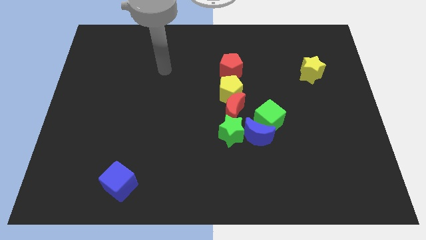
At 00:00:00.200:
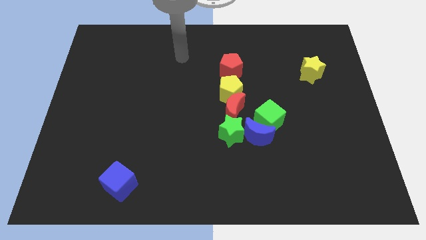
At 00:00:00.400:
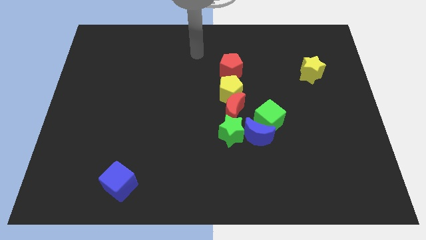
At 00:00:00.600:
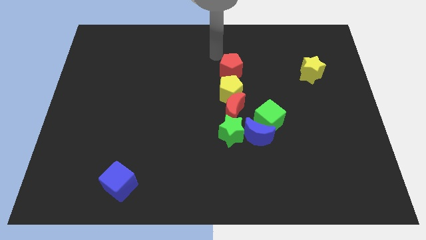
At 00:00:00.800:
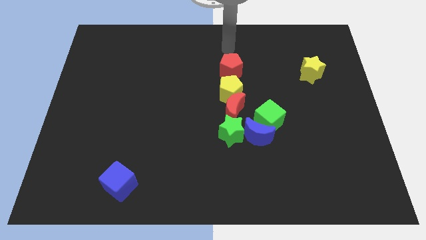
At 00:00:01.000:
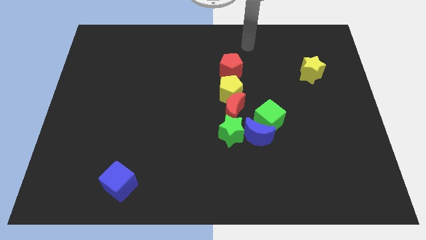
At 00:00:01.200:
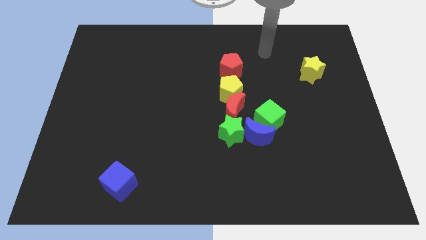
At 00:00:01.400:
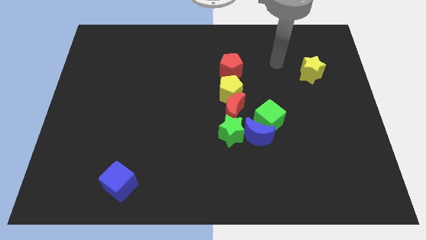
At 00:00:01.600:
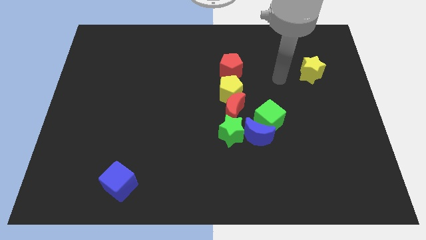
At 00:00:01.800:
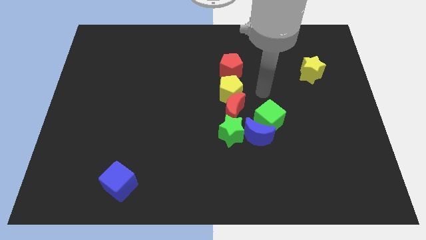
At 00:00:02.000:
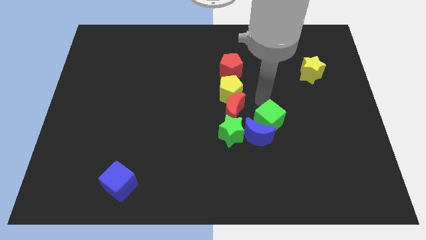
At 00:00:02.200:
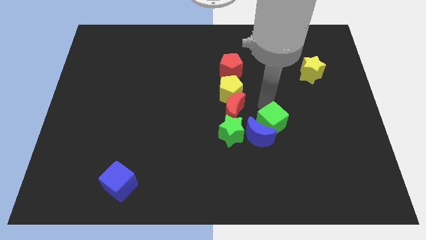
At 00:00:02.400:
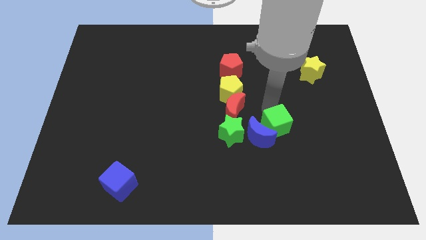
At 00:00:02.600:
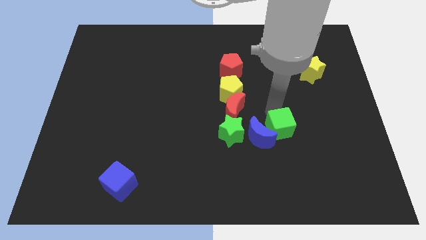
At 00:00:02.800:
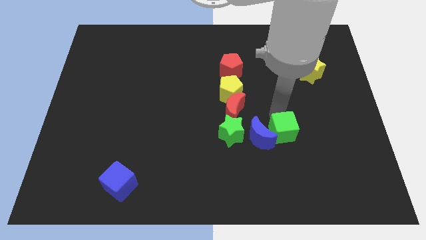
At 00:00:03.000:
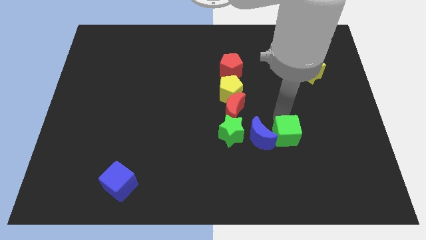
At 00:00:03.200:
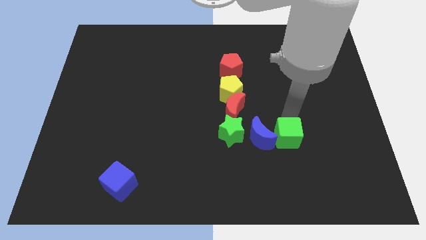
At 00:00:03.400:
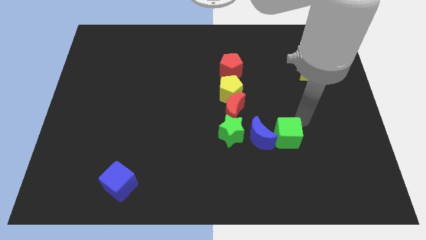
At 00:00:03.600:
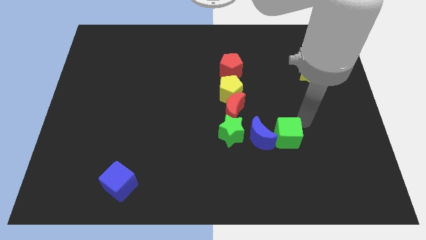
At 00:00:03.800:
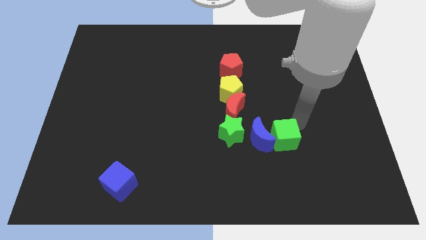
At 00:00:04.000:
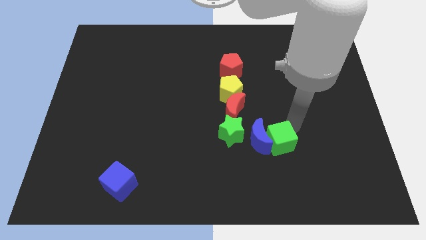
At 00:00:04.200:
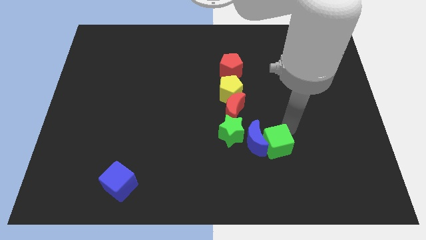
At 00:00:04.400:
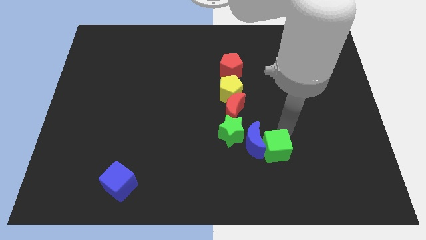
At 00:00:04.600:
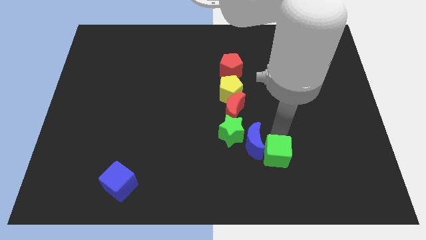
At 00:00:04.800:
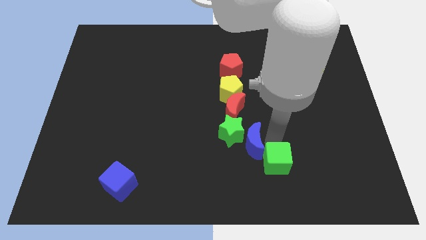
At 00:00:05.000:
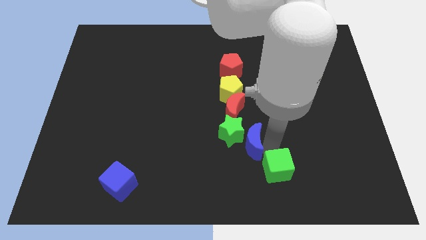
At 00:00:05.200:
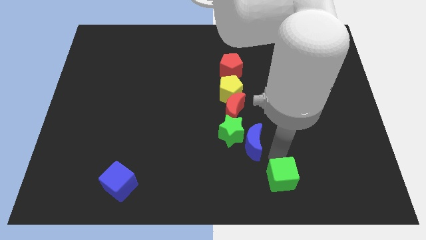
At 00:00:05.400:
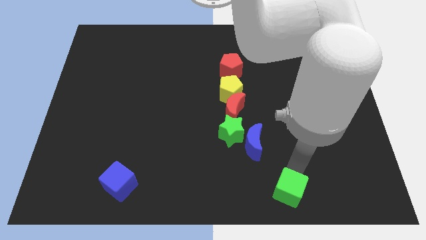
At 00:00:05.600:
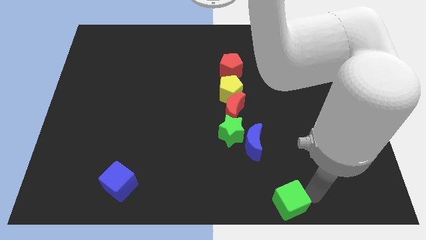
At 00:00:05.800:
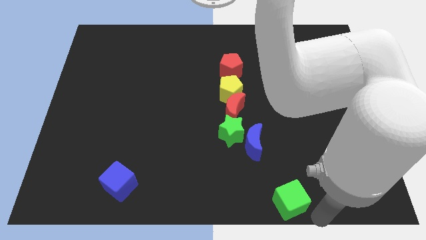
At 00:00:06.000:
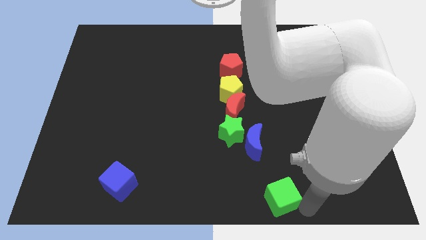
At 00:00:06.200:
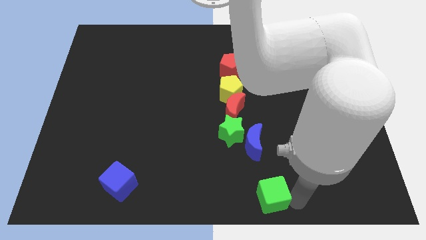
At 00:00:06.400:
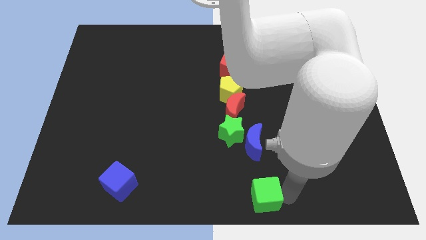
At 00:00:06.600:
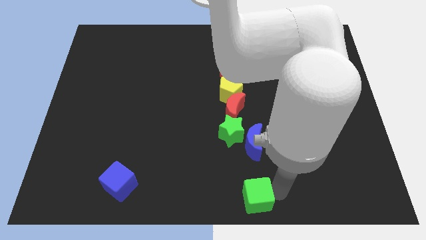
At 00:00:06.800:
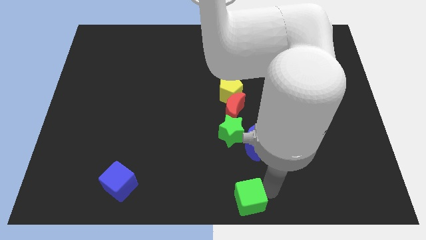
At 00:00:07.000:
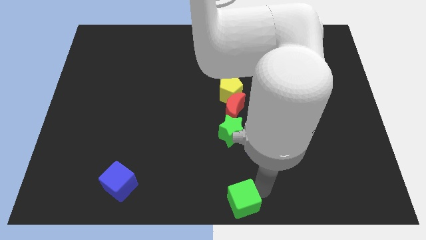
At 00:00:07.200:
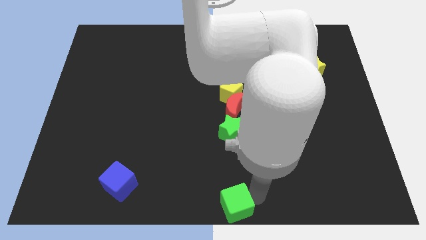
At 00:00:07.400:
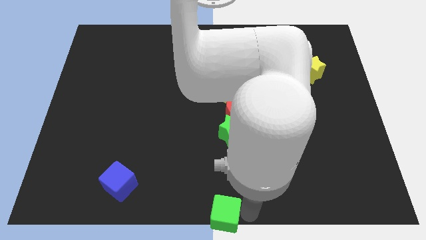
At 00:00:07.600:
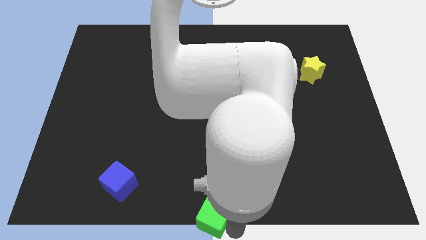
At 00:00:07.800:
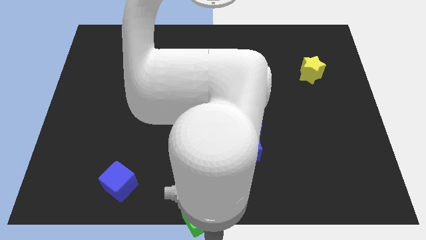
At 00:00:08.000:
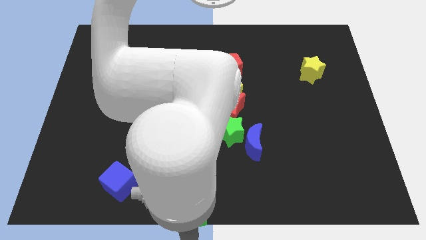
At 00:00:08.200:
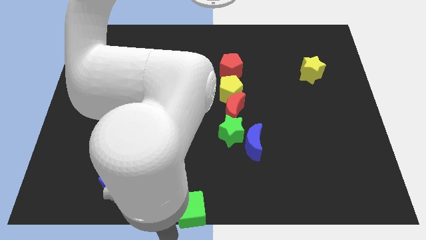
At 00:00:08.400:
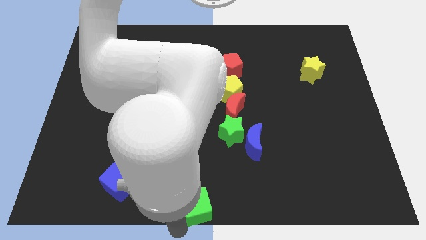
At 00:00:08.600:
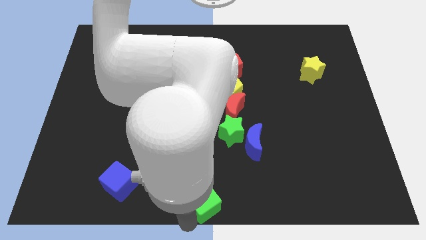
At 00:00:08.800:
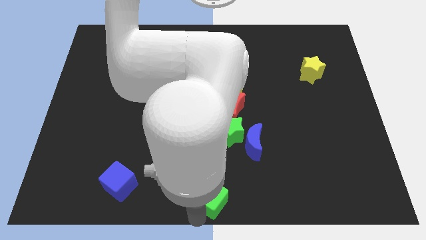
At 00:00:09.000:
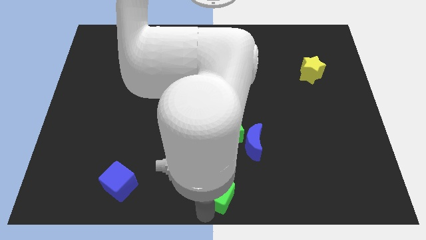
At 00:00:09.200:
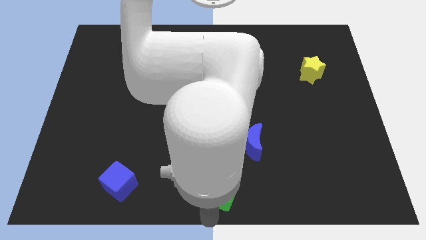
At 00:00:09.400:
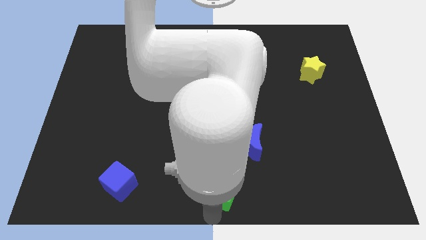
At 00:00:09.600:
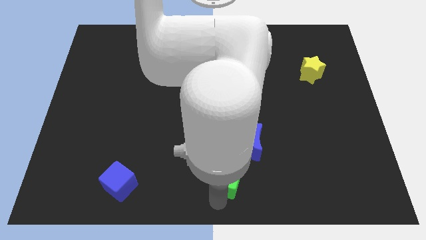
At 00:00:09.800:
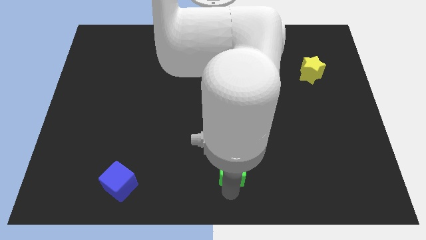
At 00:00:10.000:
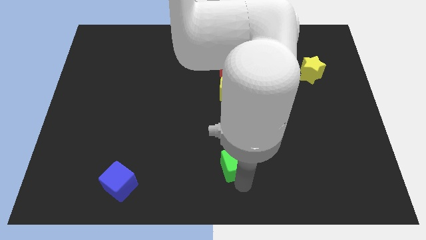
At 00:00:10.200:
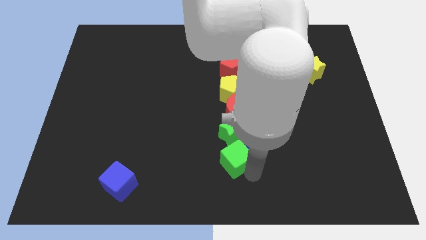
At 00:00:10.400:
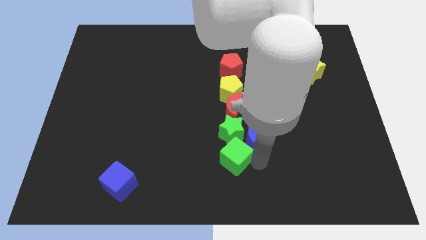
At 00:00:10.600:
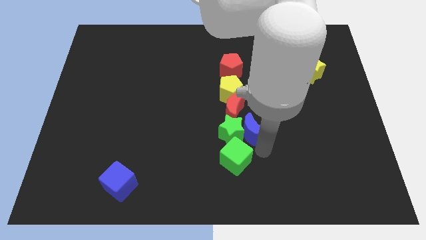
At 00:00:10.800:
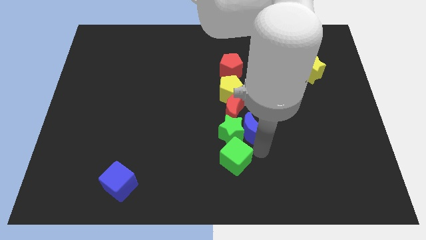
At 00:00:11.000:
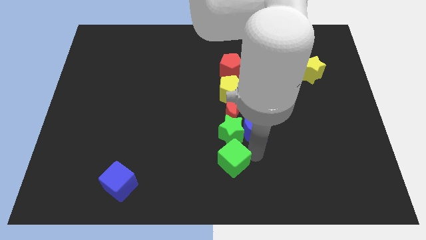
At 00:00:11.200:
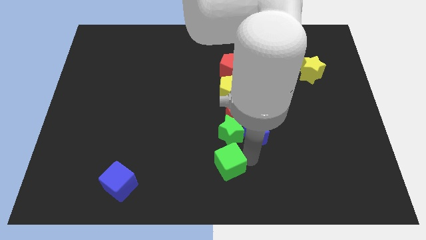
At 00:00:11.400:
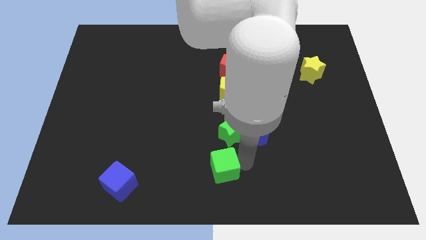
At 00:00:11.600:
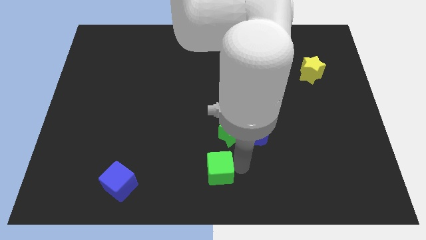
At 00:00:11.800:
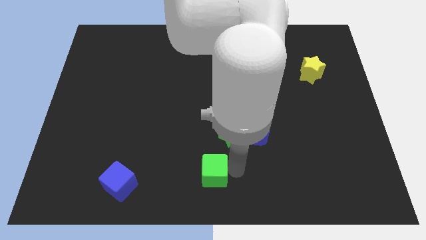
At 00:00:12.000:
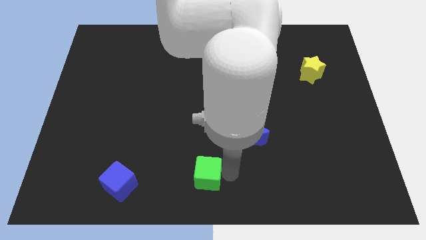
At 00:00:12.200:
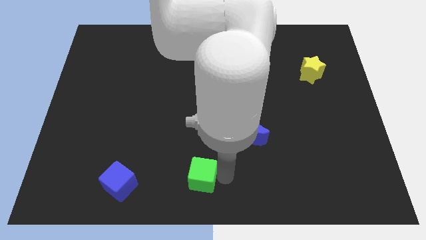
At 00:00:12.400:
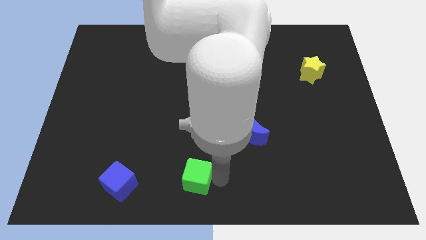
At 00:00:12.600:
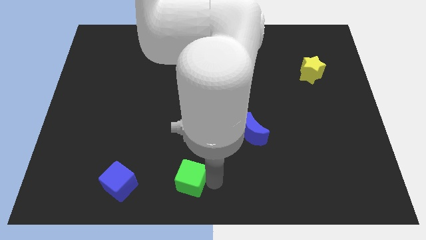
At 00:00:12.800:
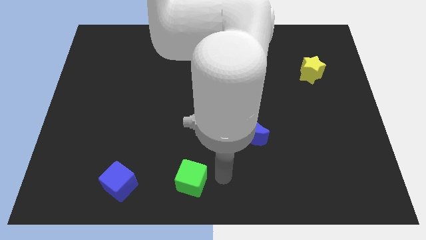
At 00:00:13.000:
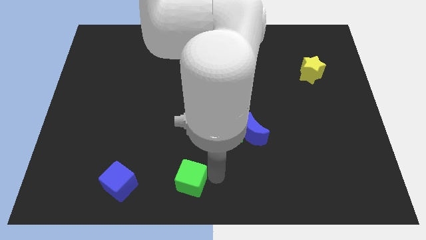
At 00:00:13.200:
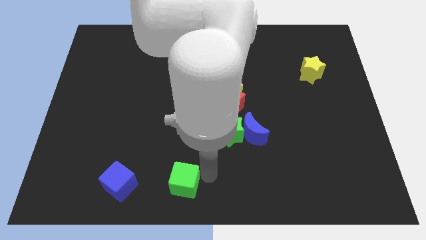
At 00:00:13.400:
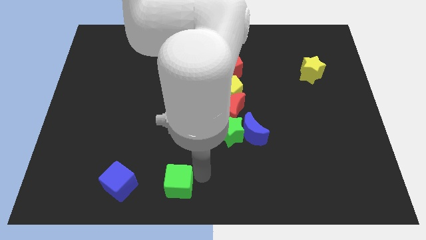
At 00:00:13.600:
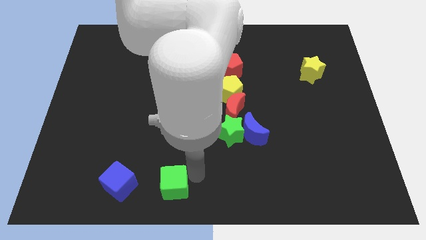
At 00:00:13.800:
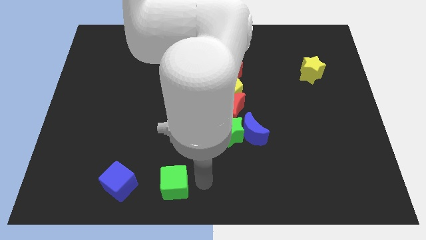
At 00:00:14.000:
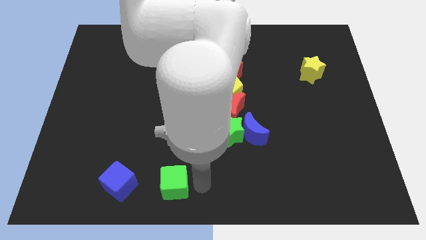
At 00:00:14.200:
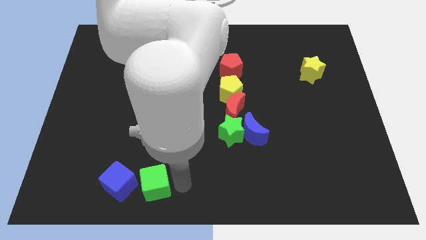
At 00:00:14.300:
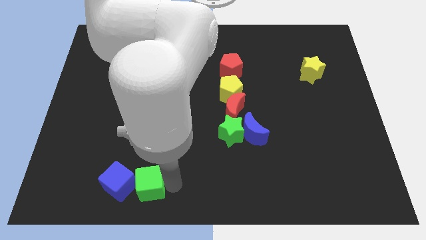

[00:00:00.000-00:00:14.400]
put the green cube next to the blue cube
